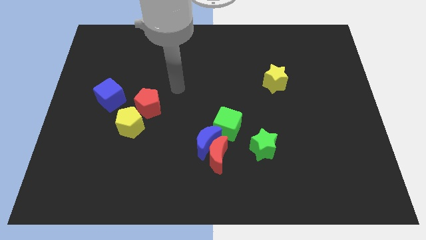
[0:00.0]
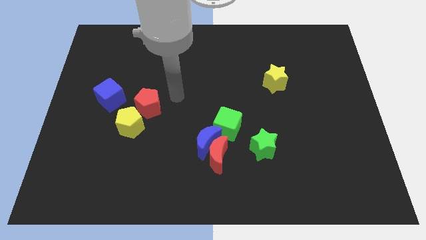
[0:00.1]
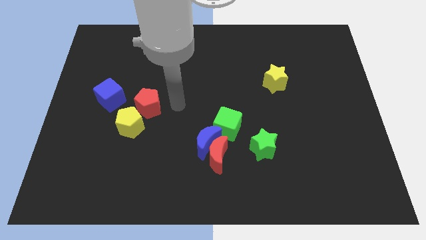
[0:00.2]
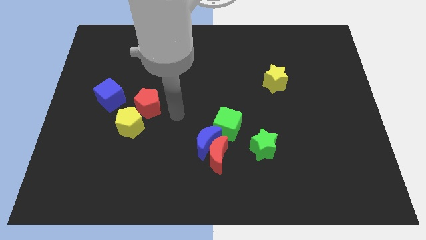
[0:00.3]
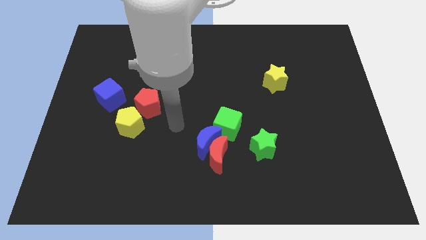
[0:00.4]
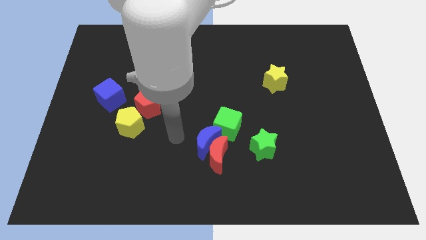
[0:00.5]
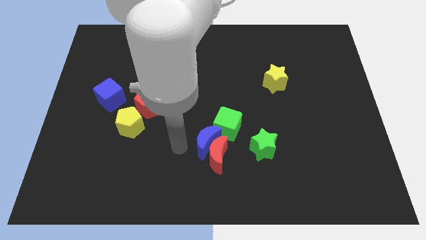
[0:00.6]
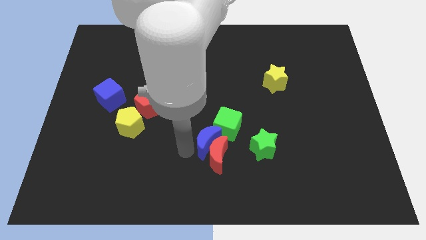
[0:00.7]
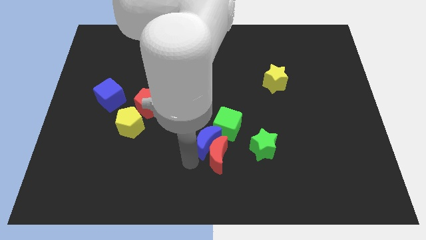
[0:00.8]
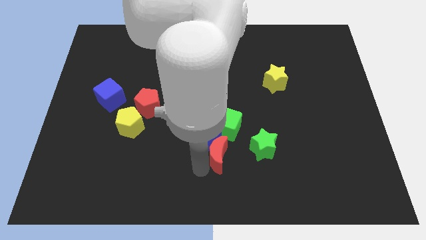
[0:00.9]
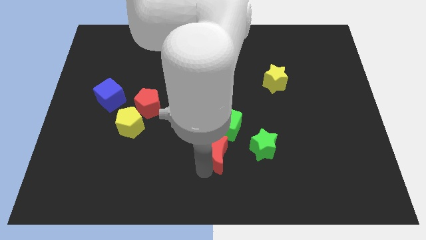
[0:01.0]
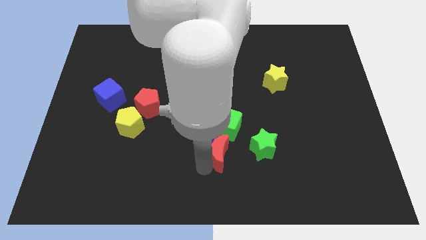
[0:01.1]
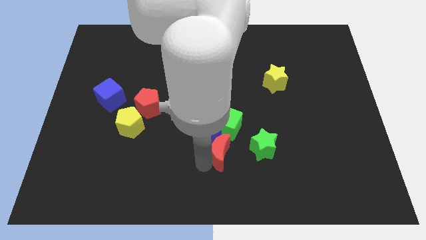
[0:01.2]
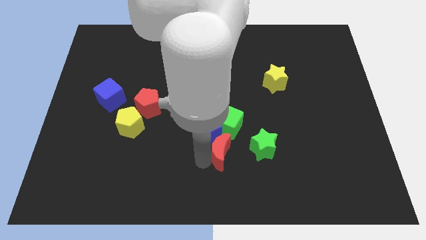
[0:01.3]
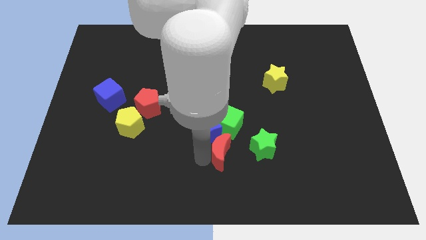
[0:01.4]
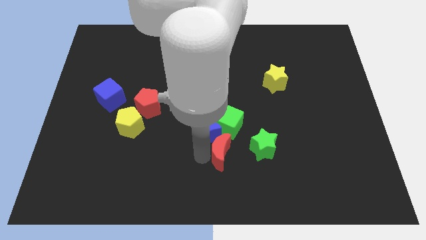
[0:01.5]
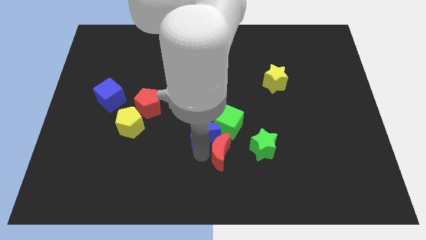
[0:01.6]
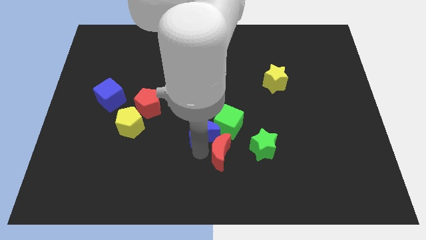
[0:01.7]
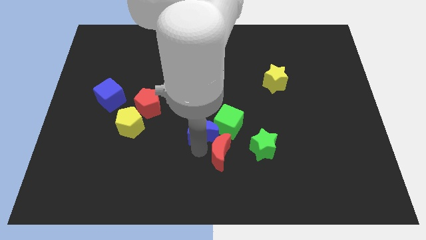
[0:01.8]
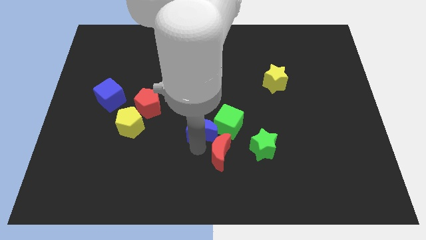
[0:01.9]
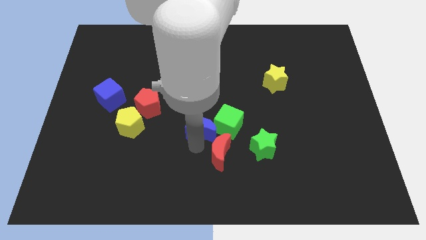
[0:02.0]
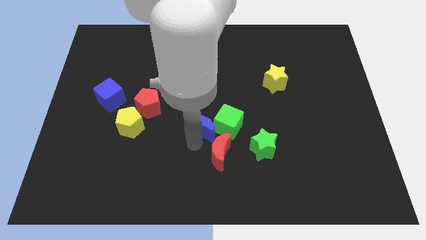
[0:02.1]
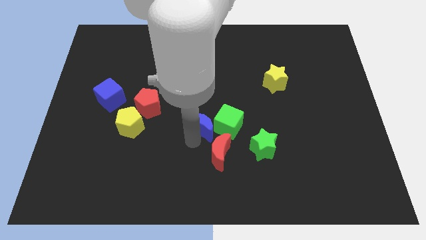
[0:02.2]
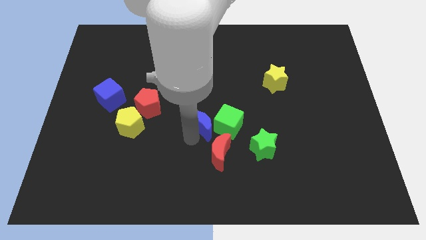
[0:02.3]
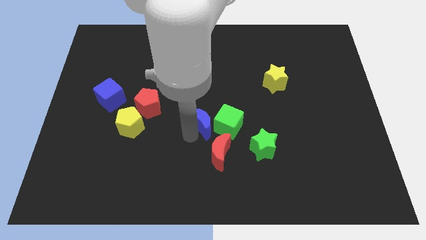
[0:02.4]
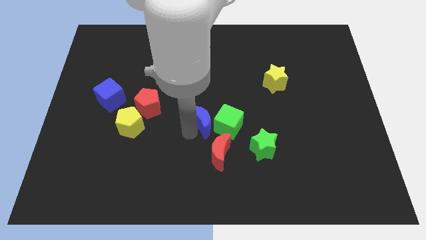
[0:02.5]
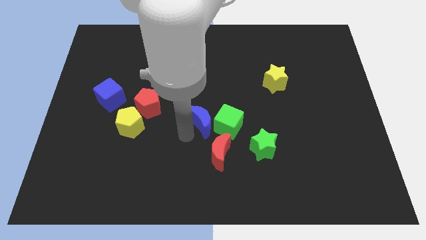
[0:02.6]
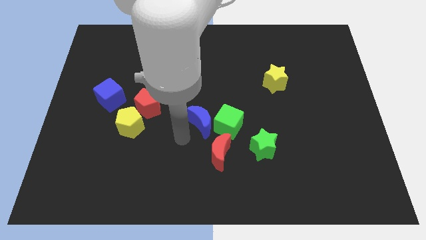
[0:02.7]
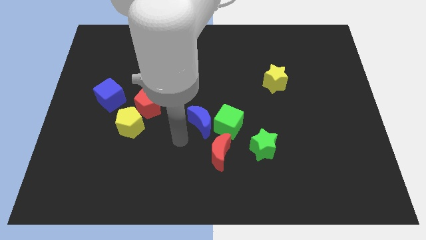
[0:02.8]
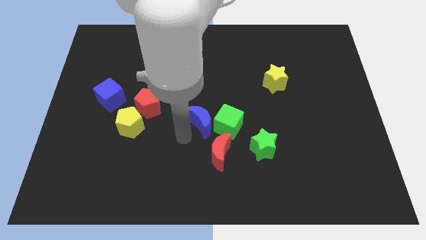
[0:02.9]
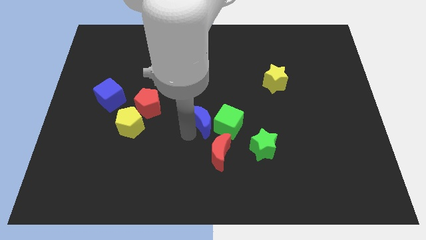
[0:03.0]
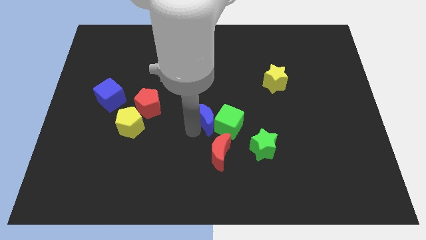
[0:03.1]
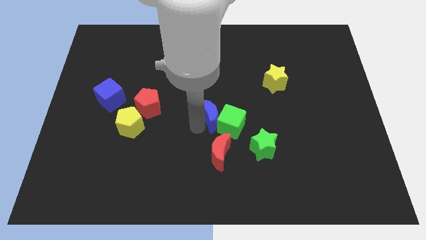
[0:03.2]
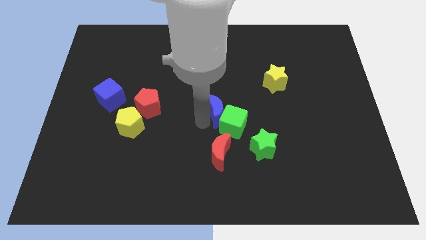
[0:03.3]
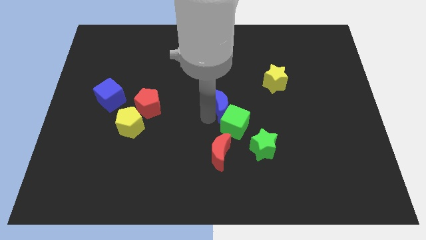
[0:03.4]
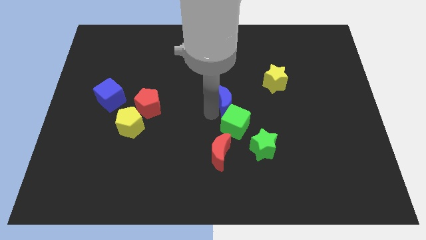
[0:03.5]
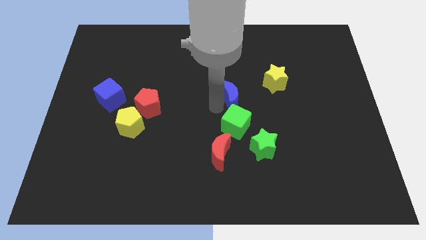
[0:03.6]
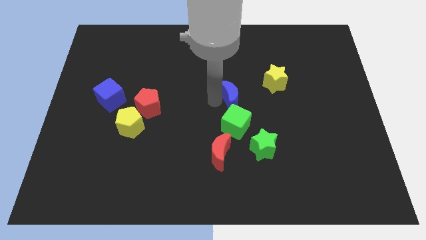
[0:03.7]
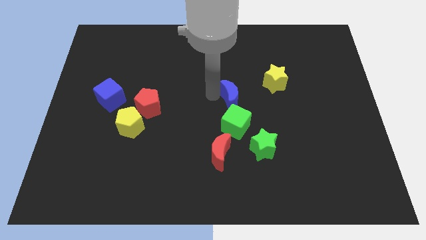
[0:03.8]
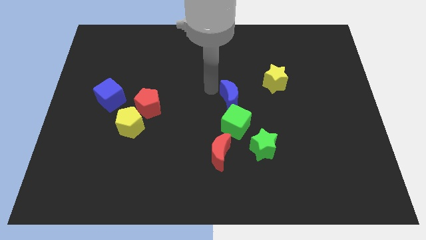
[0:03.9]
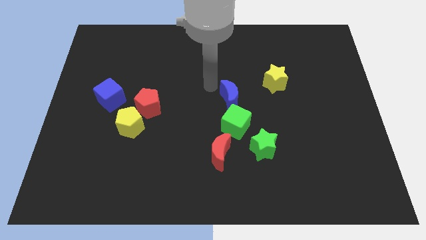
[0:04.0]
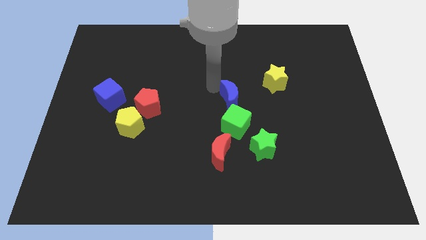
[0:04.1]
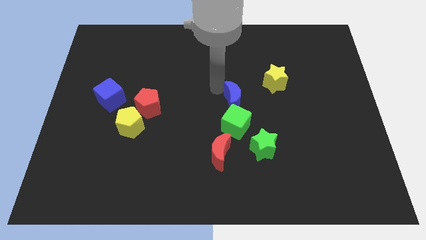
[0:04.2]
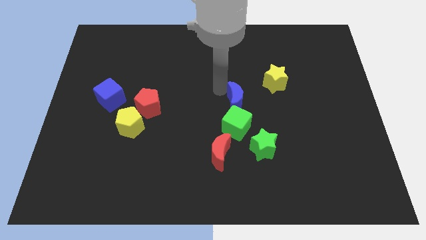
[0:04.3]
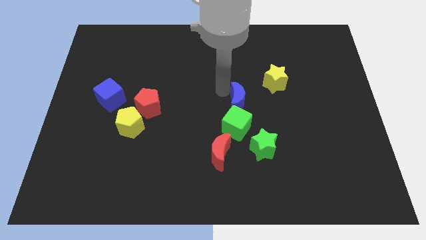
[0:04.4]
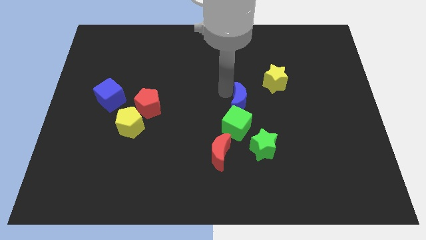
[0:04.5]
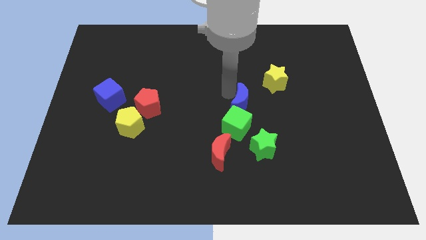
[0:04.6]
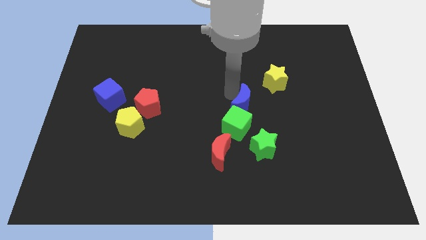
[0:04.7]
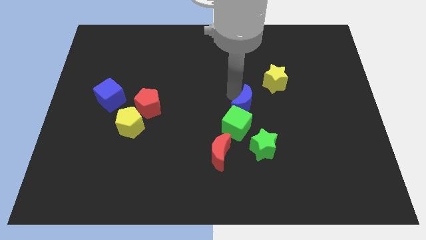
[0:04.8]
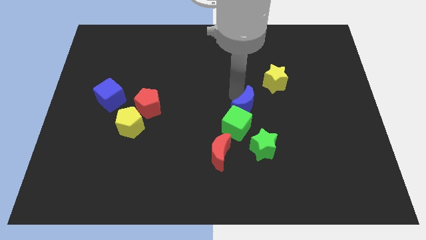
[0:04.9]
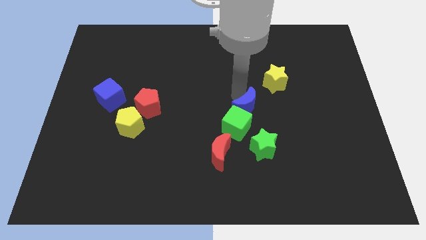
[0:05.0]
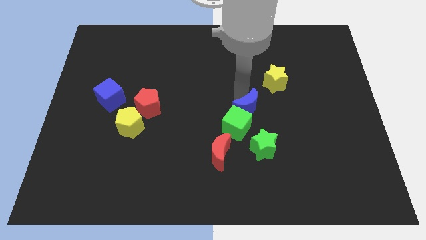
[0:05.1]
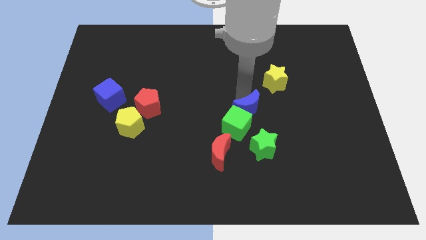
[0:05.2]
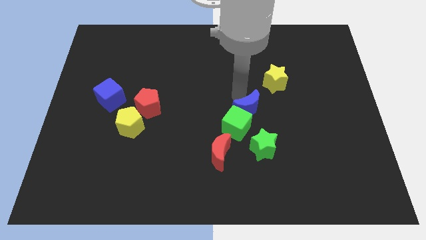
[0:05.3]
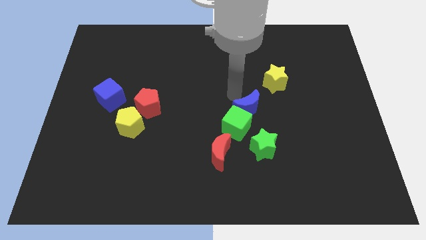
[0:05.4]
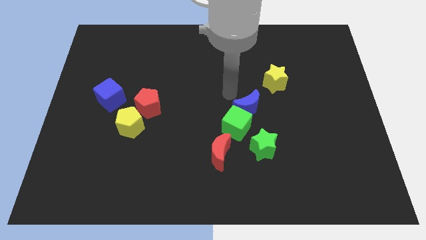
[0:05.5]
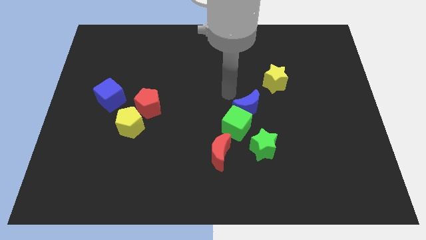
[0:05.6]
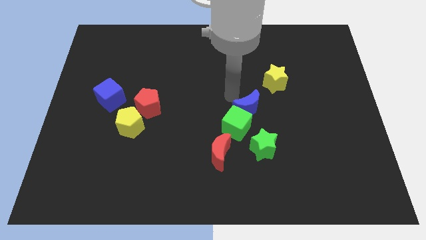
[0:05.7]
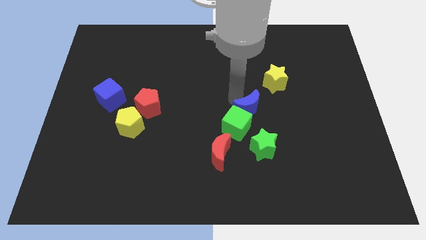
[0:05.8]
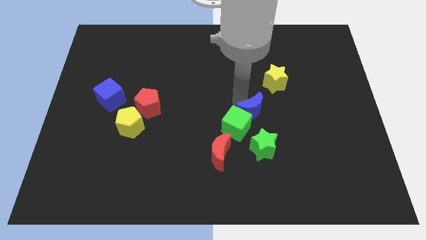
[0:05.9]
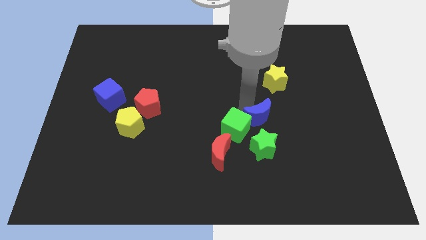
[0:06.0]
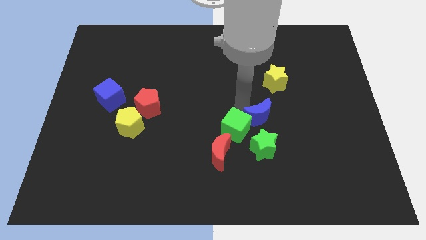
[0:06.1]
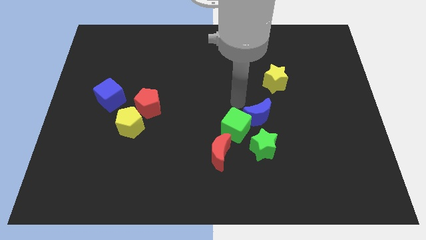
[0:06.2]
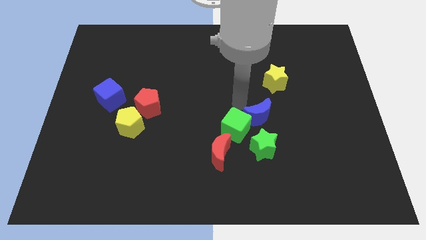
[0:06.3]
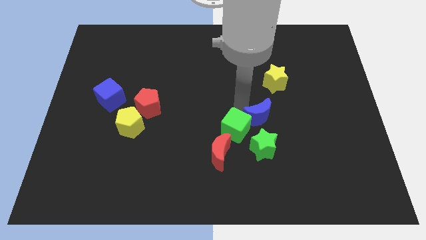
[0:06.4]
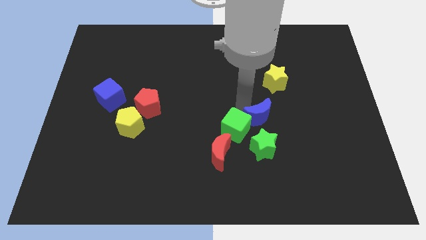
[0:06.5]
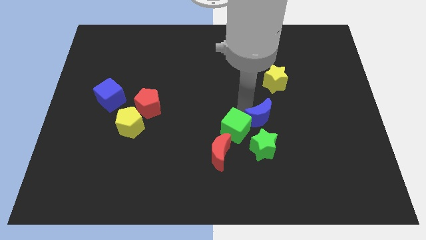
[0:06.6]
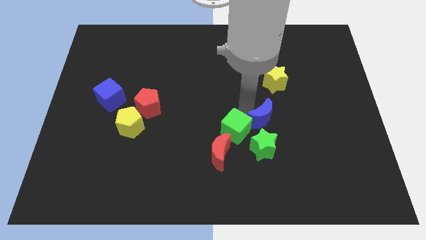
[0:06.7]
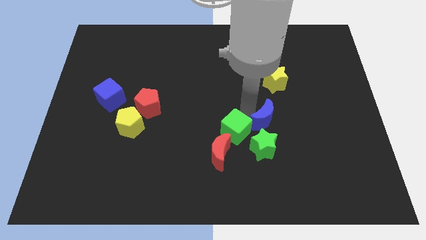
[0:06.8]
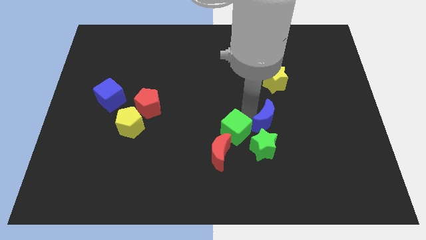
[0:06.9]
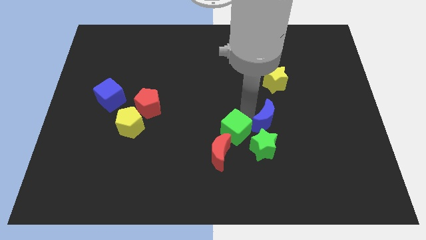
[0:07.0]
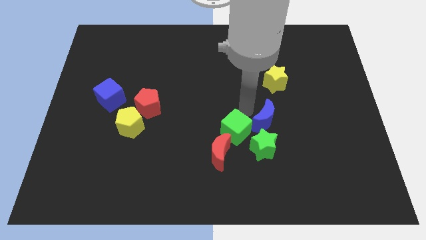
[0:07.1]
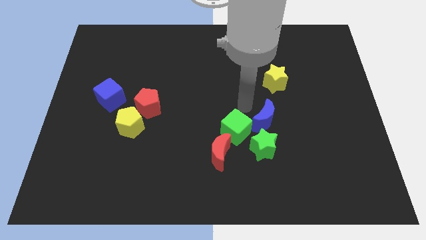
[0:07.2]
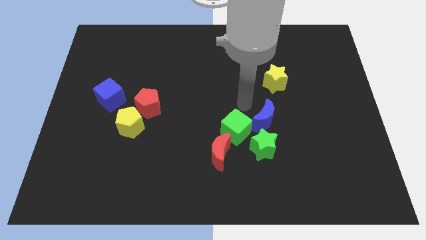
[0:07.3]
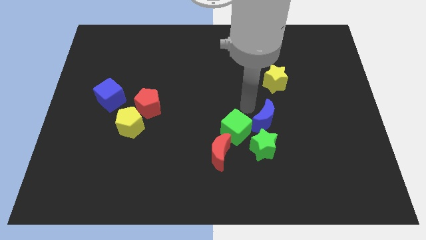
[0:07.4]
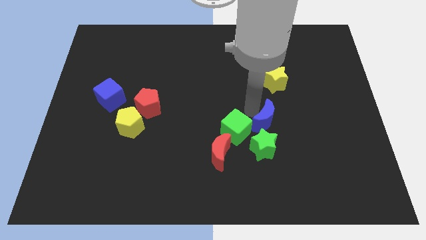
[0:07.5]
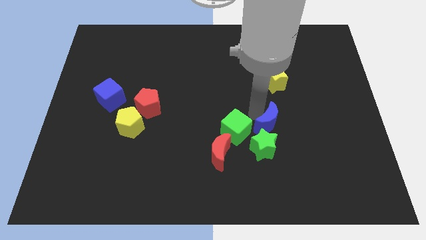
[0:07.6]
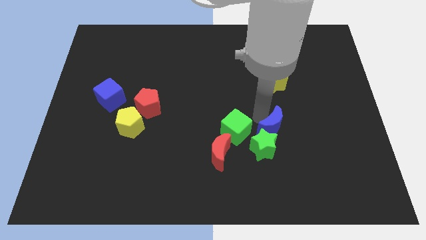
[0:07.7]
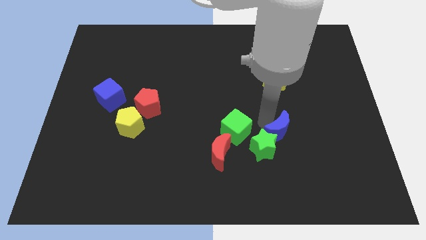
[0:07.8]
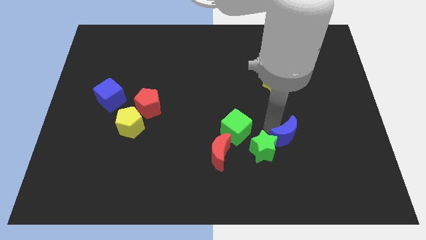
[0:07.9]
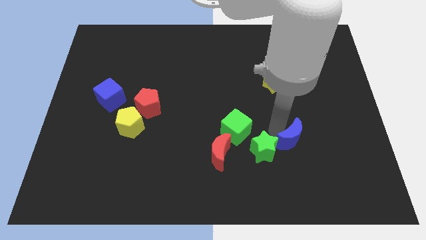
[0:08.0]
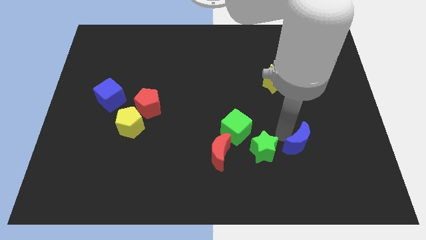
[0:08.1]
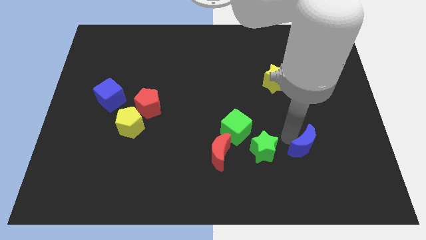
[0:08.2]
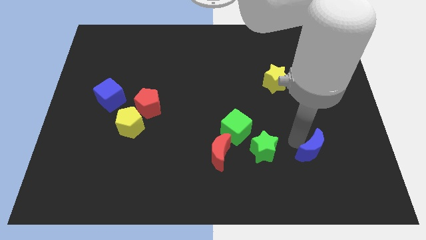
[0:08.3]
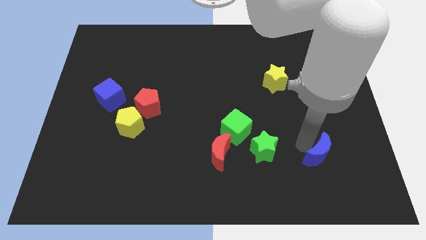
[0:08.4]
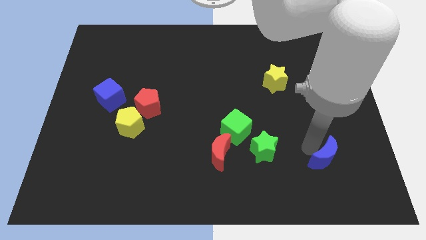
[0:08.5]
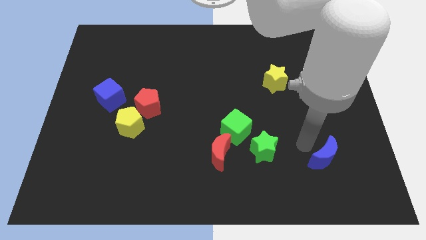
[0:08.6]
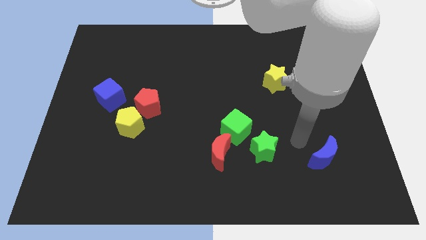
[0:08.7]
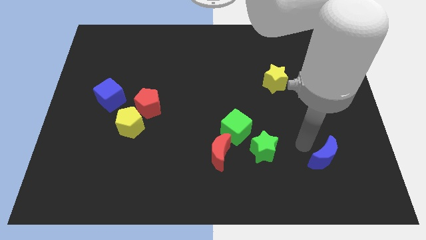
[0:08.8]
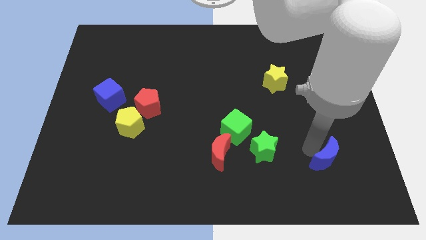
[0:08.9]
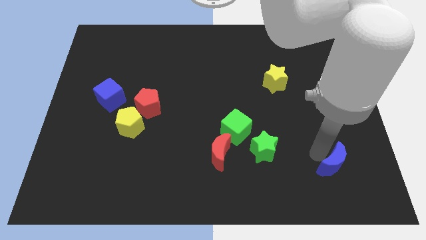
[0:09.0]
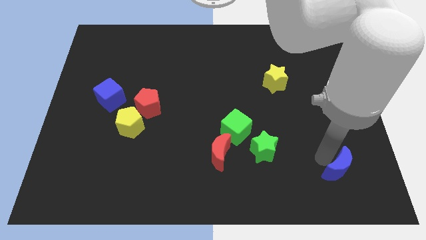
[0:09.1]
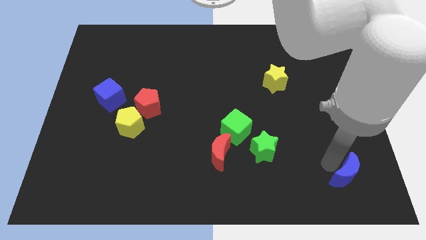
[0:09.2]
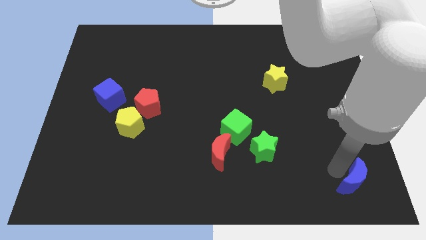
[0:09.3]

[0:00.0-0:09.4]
push the blue moon to the bottom right
